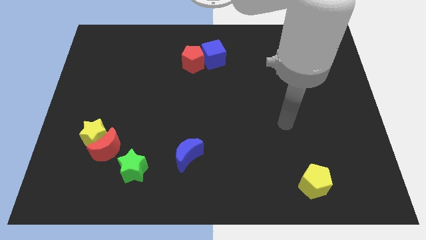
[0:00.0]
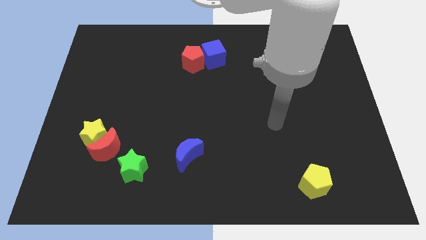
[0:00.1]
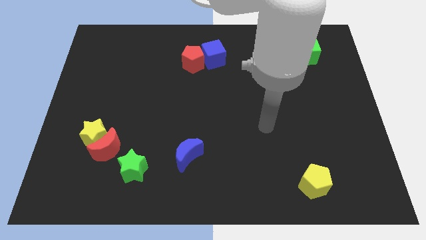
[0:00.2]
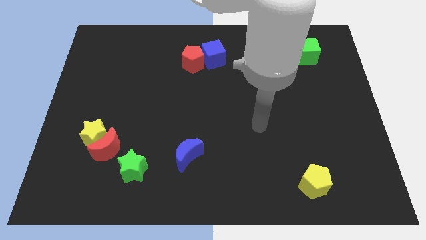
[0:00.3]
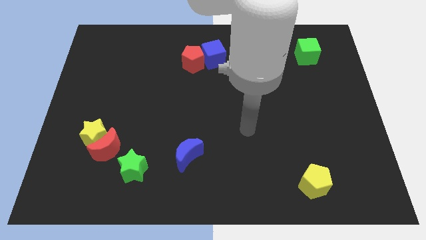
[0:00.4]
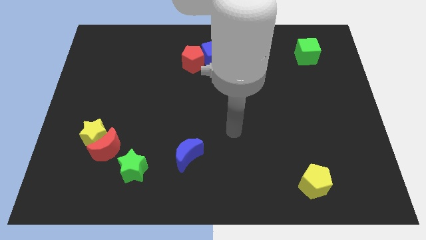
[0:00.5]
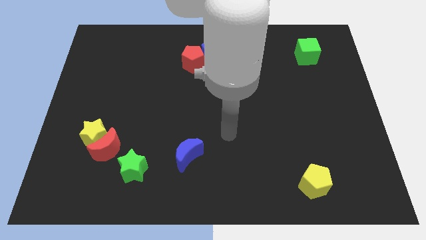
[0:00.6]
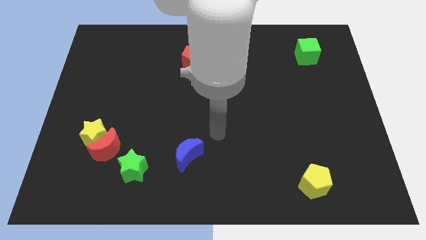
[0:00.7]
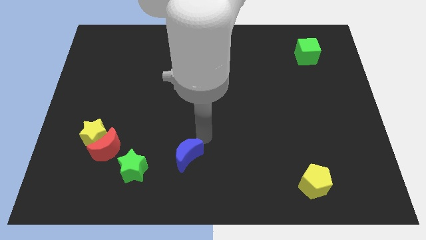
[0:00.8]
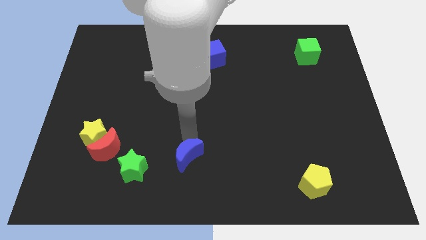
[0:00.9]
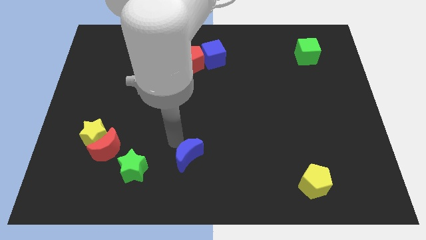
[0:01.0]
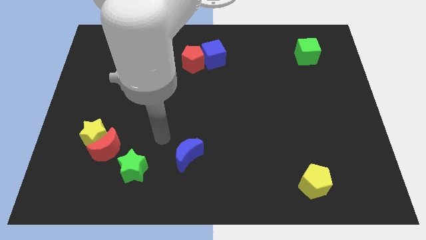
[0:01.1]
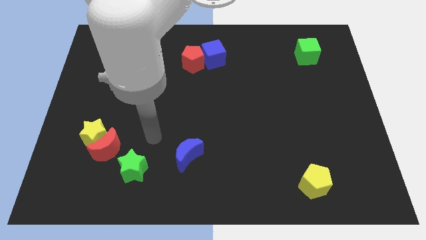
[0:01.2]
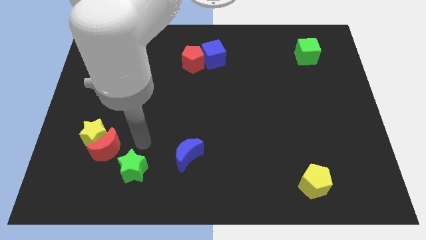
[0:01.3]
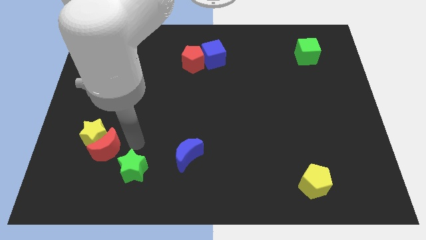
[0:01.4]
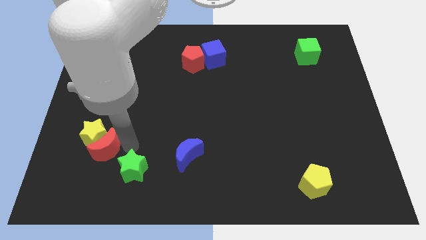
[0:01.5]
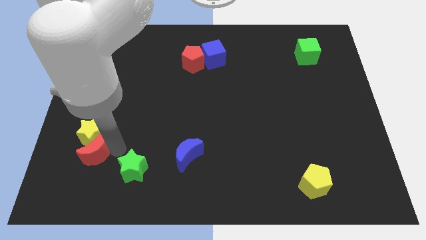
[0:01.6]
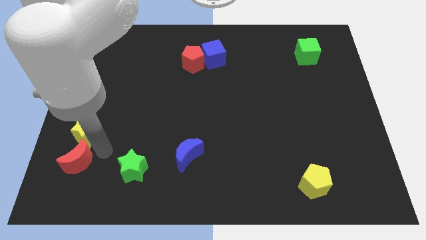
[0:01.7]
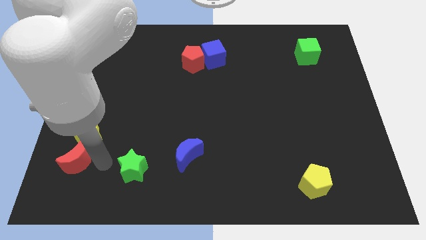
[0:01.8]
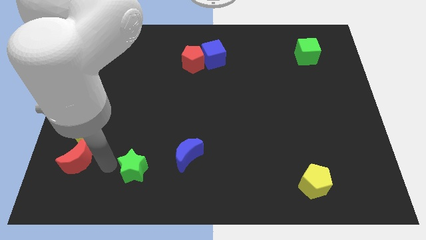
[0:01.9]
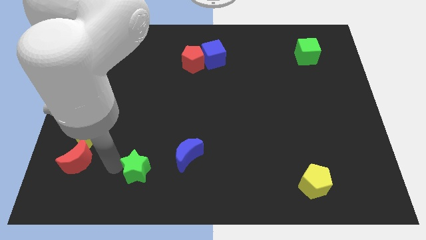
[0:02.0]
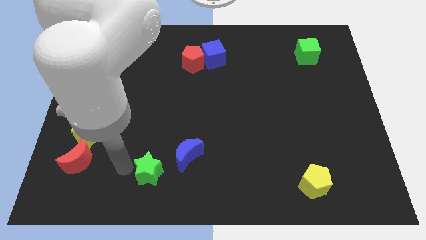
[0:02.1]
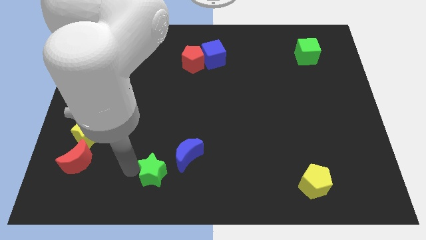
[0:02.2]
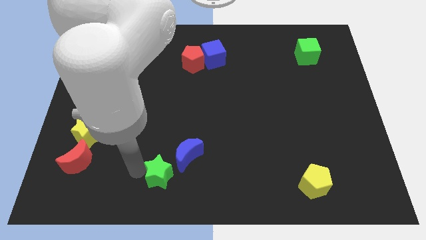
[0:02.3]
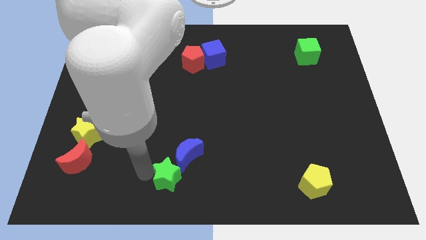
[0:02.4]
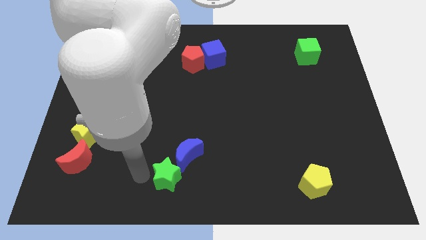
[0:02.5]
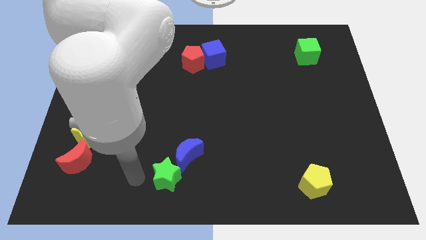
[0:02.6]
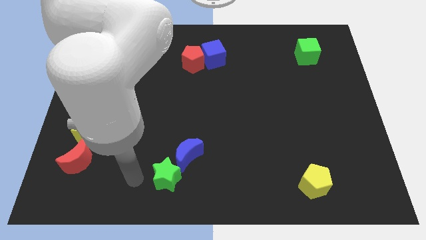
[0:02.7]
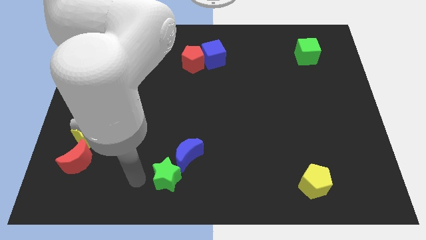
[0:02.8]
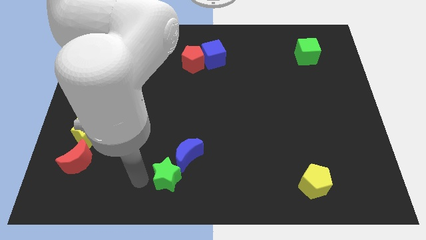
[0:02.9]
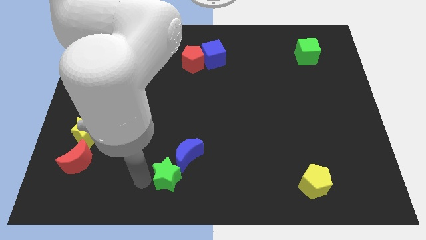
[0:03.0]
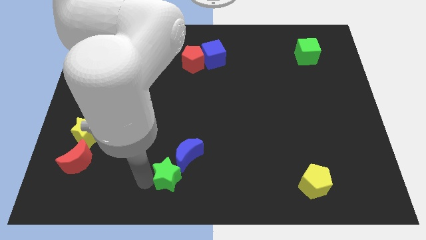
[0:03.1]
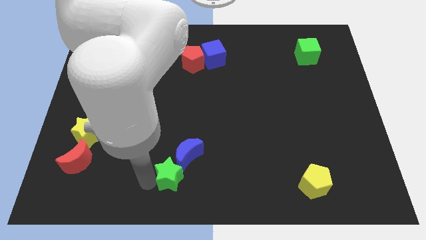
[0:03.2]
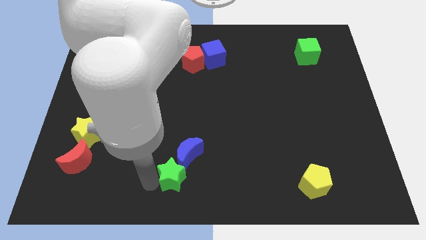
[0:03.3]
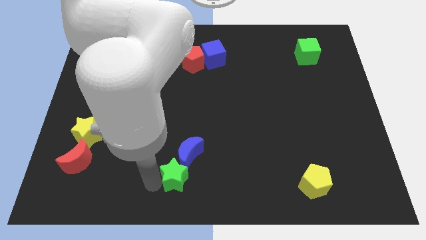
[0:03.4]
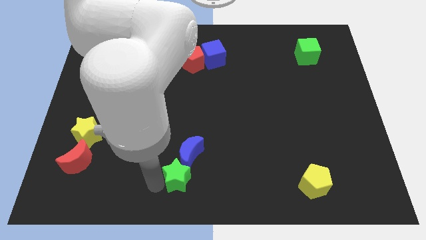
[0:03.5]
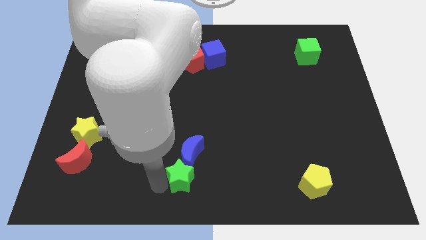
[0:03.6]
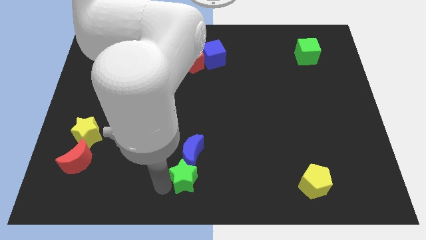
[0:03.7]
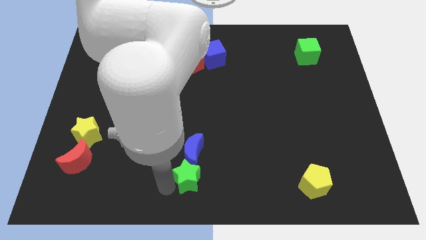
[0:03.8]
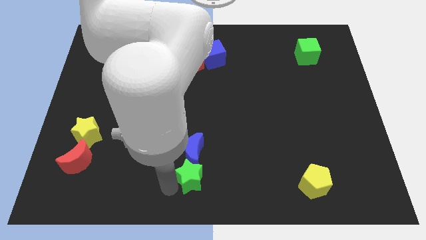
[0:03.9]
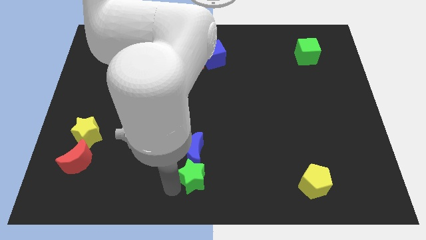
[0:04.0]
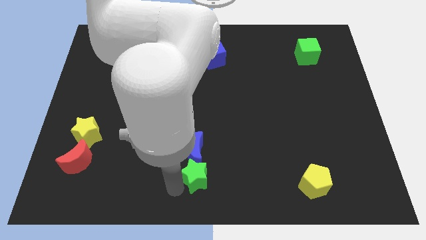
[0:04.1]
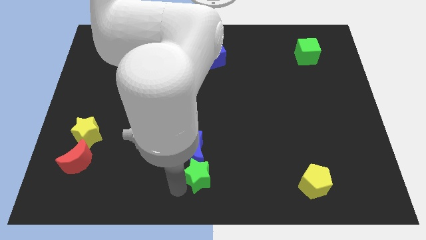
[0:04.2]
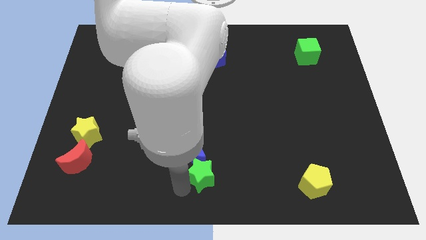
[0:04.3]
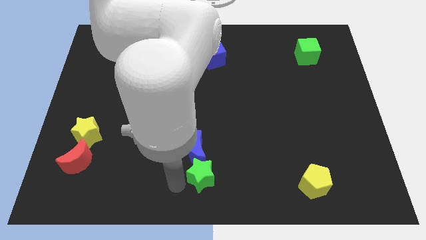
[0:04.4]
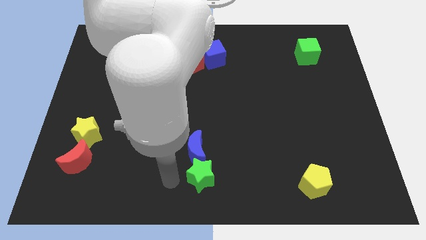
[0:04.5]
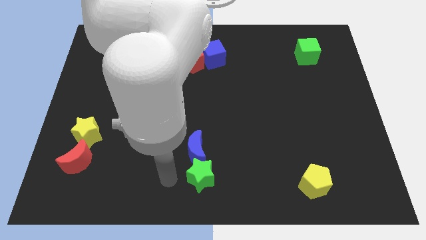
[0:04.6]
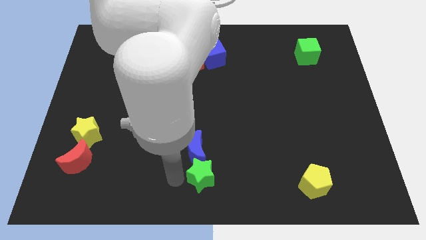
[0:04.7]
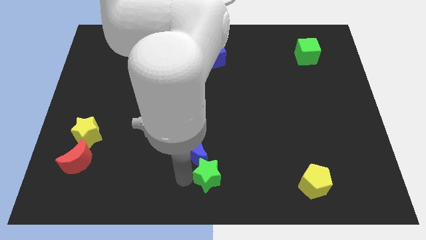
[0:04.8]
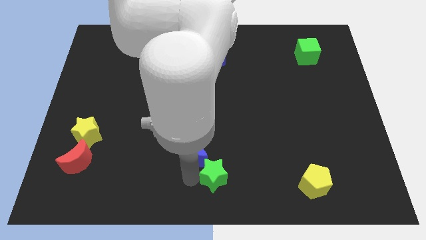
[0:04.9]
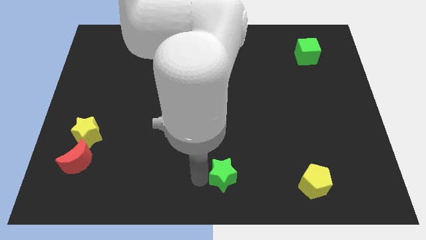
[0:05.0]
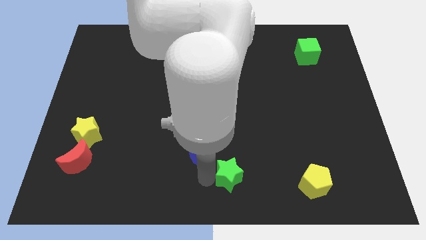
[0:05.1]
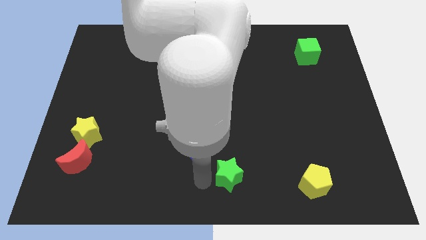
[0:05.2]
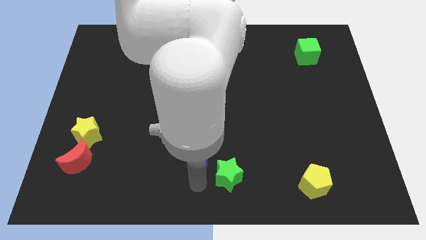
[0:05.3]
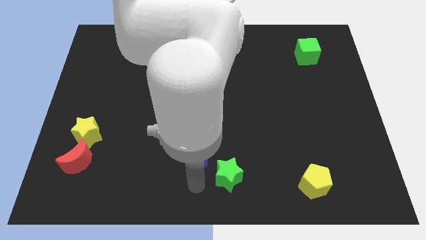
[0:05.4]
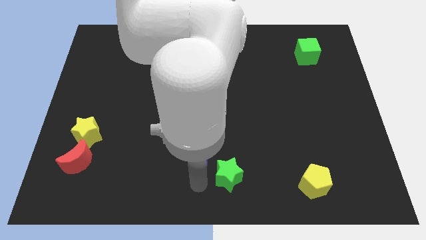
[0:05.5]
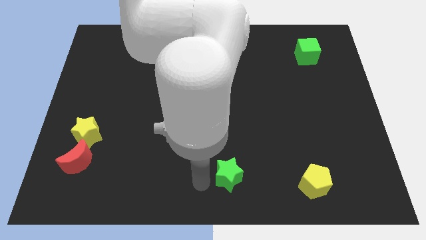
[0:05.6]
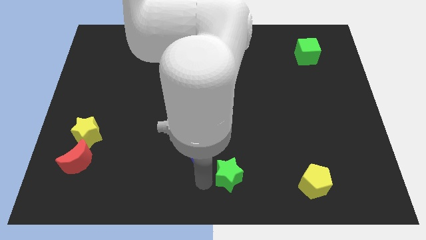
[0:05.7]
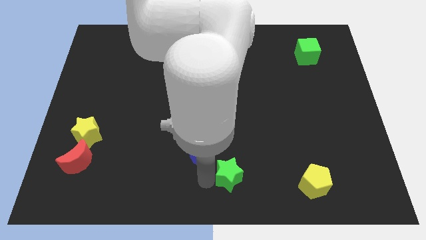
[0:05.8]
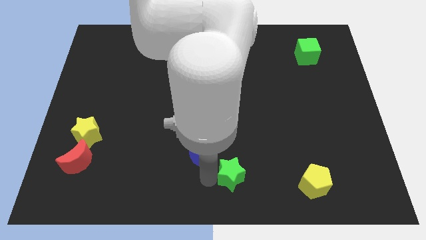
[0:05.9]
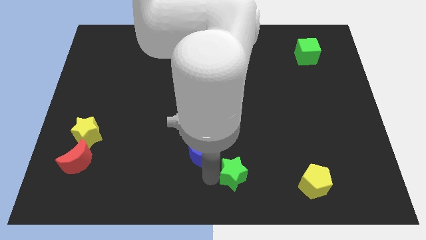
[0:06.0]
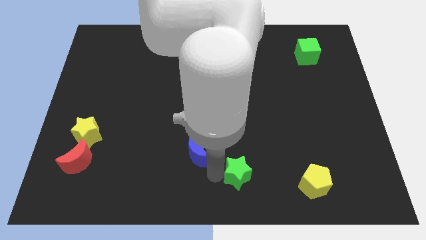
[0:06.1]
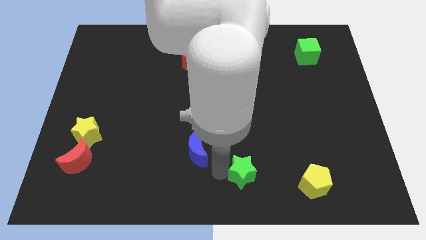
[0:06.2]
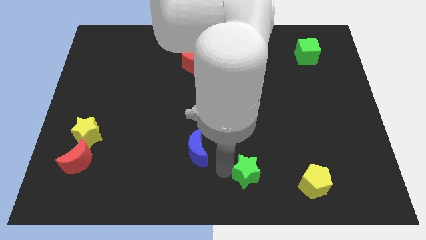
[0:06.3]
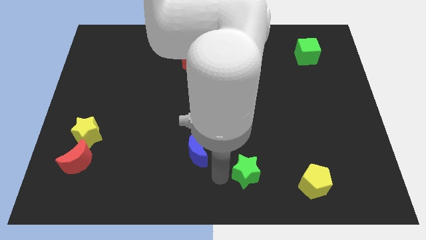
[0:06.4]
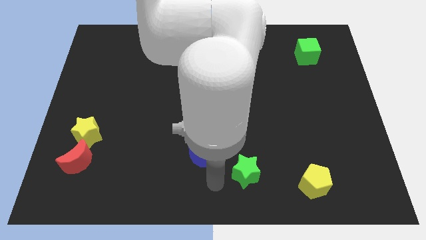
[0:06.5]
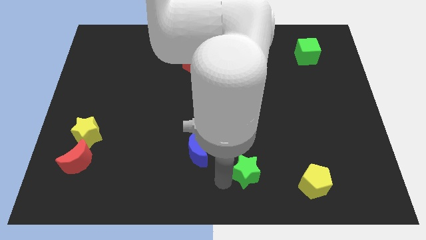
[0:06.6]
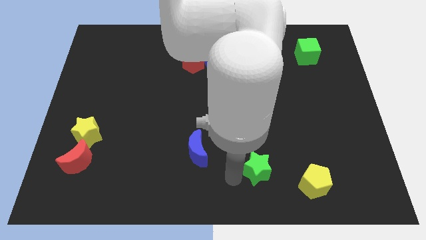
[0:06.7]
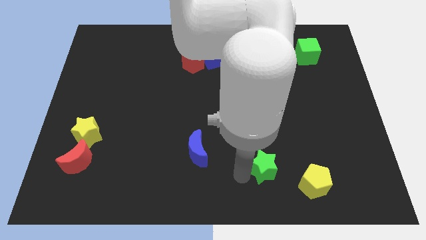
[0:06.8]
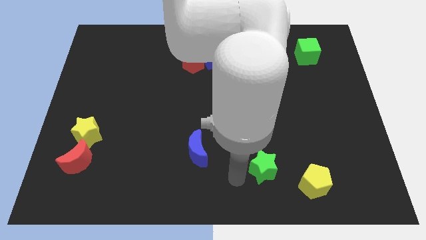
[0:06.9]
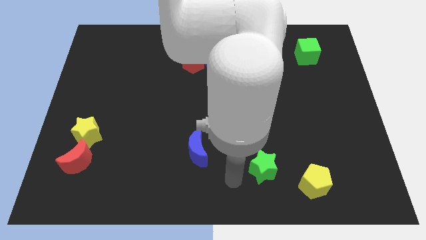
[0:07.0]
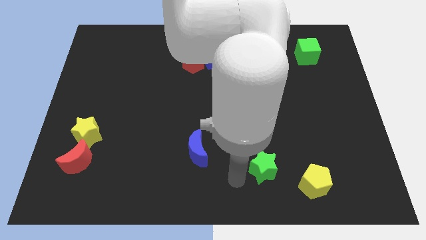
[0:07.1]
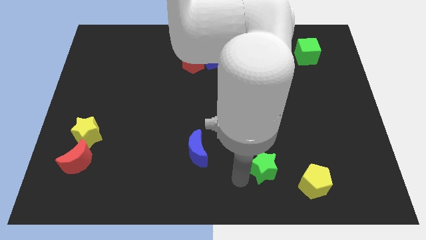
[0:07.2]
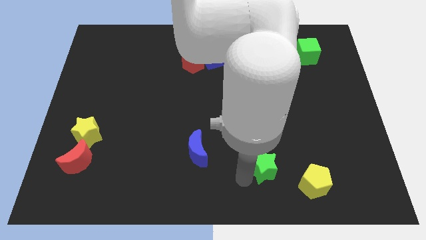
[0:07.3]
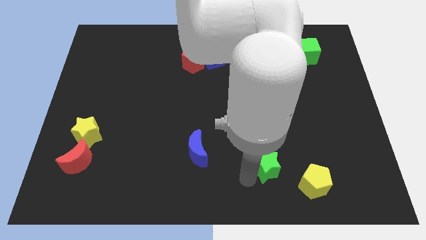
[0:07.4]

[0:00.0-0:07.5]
put the green star to the top left side of the yellow pentagon
